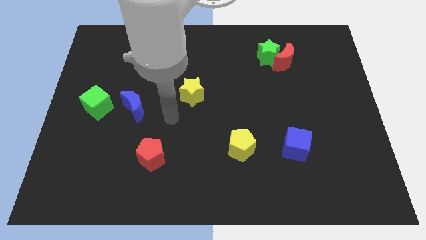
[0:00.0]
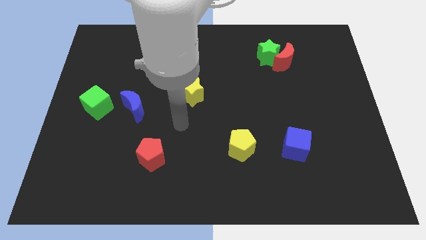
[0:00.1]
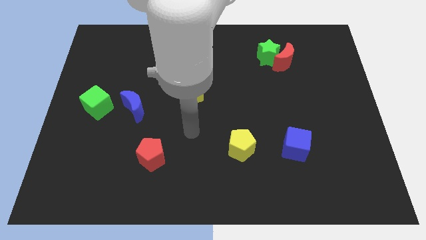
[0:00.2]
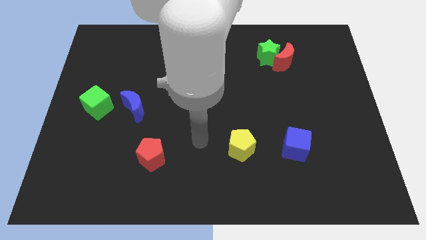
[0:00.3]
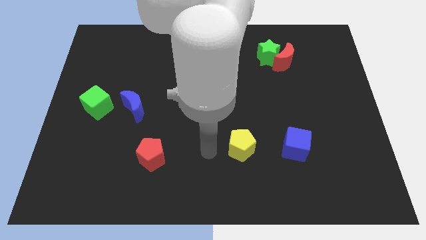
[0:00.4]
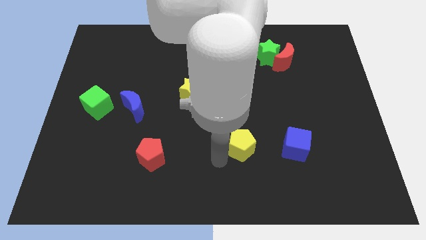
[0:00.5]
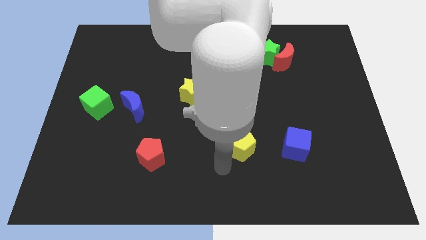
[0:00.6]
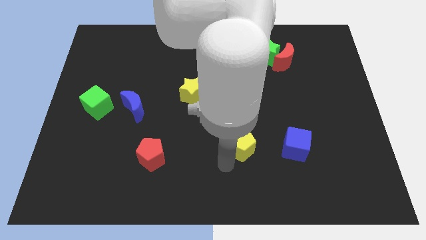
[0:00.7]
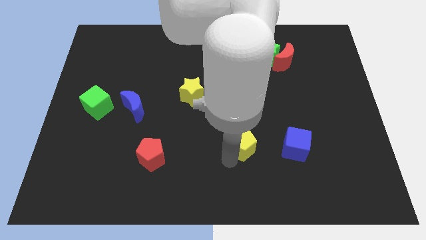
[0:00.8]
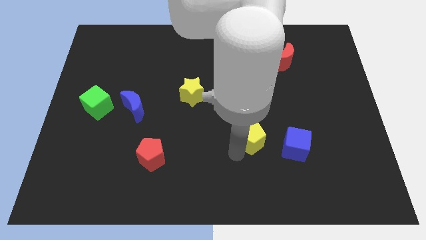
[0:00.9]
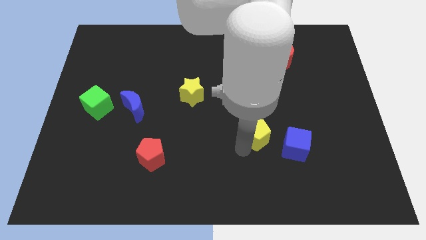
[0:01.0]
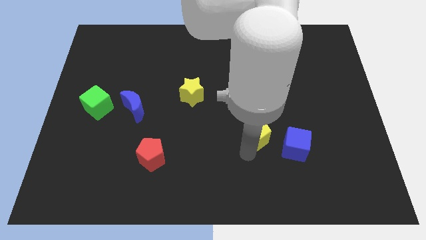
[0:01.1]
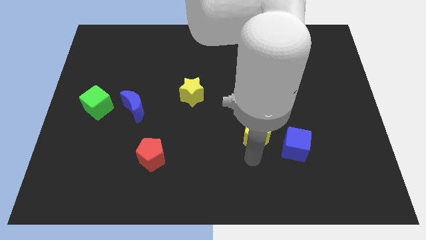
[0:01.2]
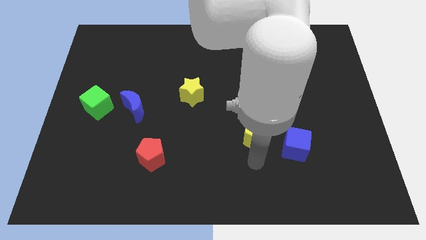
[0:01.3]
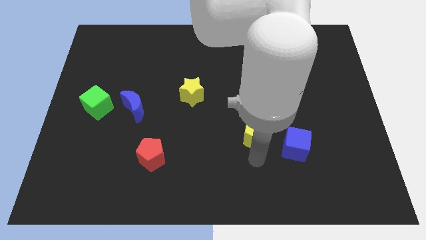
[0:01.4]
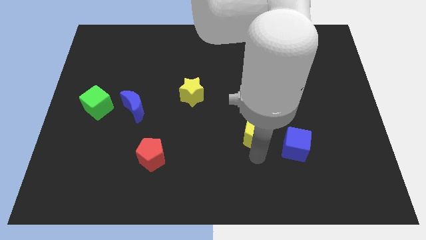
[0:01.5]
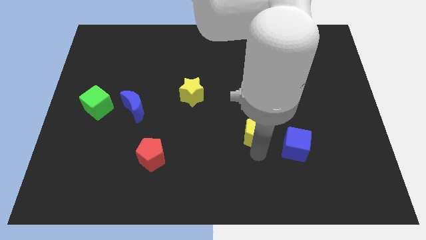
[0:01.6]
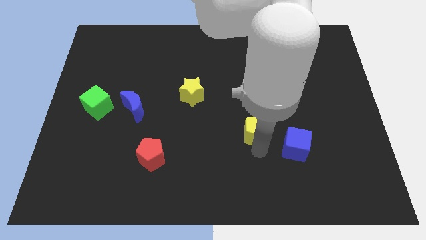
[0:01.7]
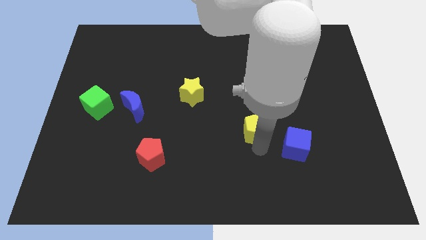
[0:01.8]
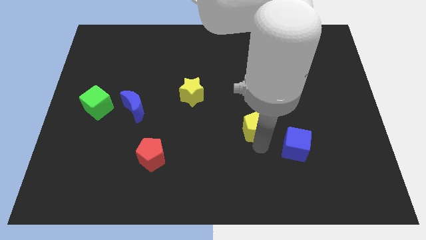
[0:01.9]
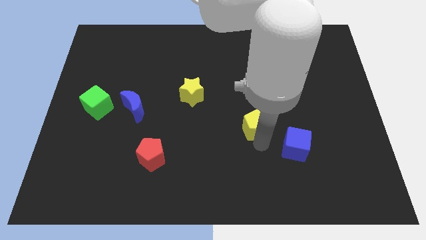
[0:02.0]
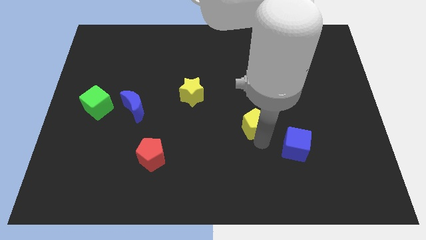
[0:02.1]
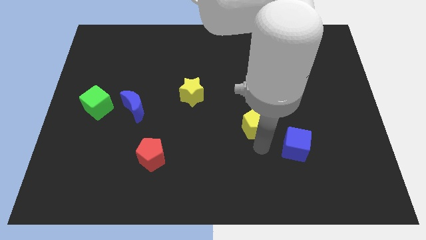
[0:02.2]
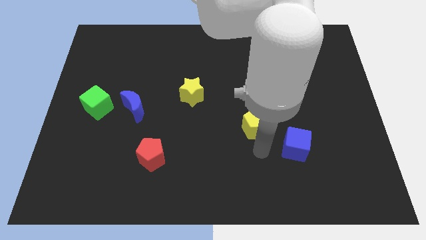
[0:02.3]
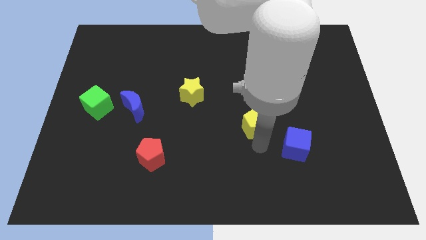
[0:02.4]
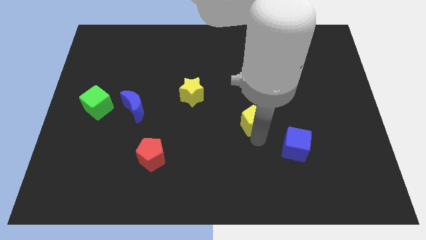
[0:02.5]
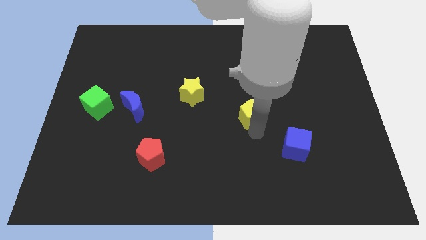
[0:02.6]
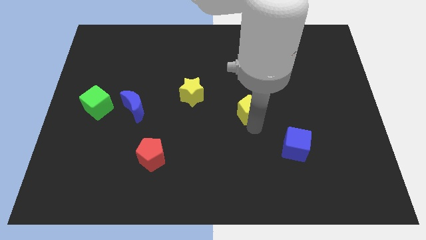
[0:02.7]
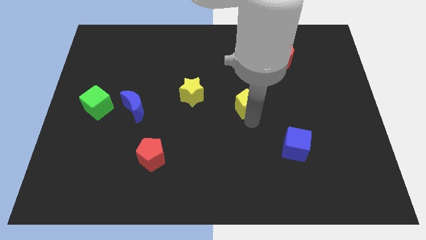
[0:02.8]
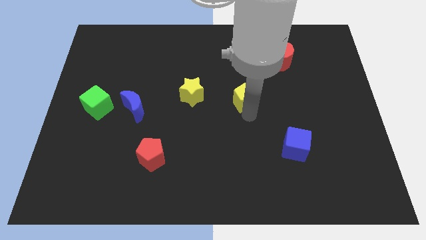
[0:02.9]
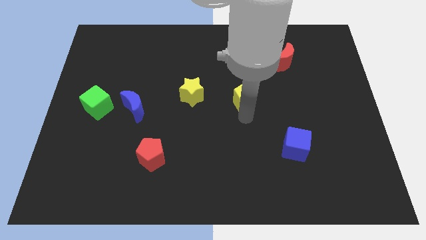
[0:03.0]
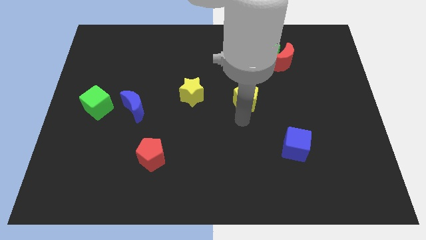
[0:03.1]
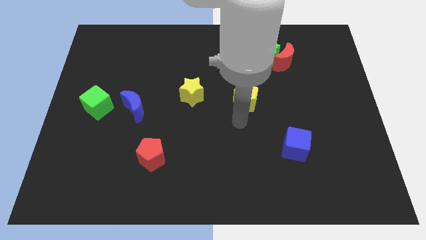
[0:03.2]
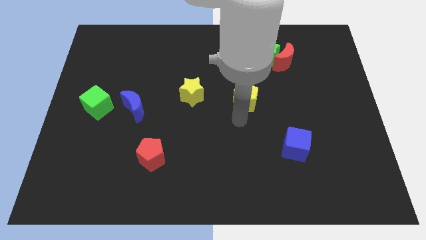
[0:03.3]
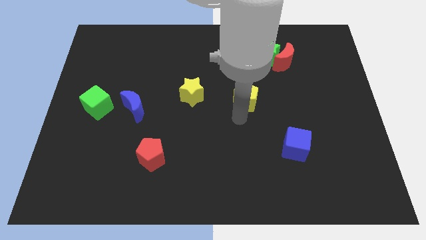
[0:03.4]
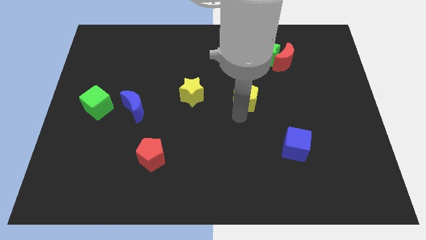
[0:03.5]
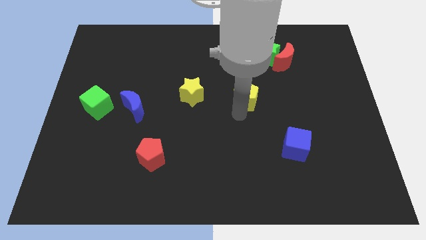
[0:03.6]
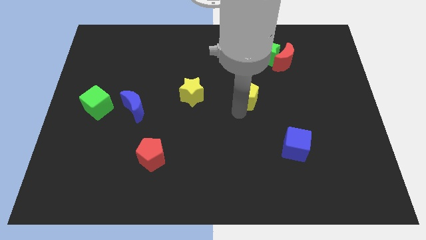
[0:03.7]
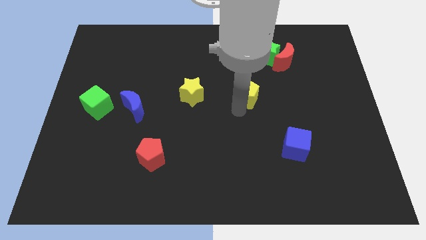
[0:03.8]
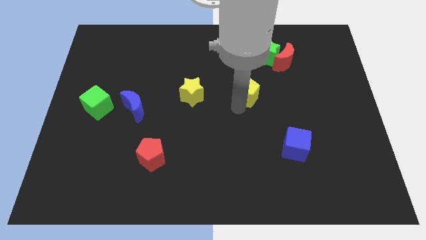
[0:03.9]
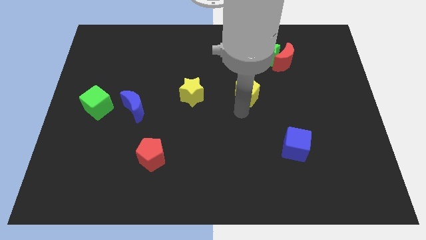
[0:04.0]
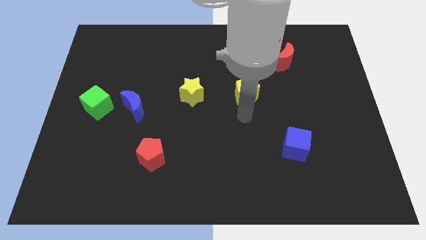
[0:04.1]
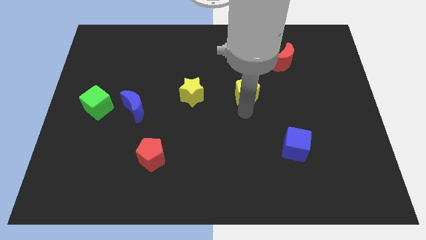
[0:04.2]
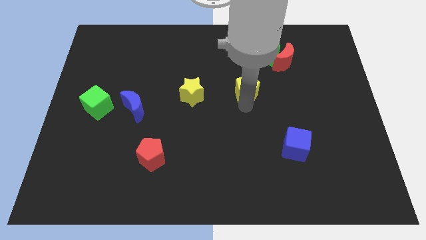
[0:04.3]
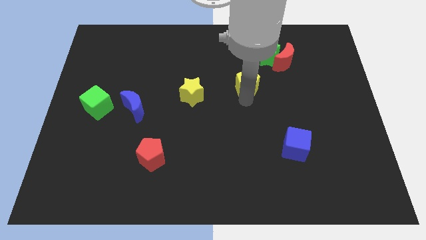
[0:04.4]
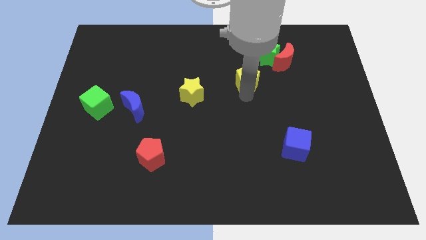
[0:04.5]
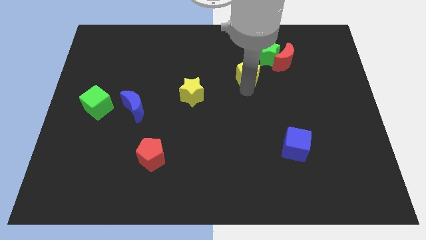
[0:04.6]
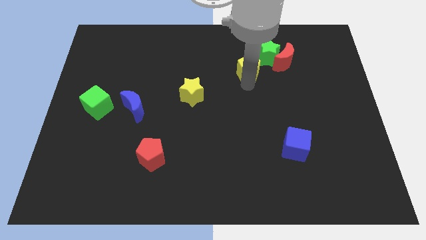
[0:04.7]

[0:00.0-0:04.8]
put the yellow pentagon just left of the red moon

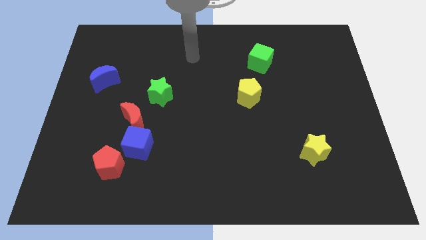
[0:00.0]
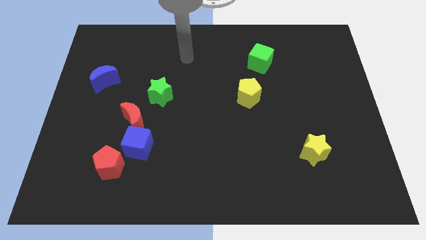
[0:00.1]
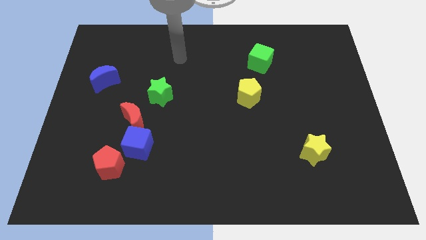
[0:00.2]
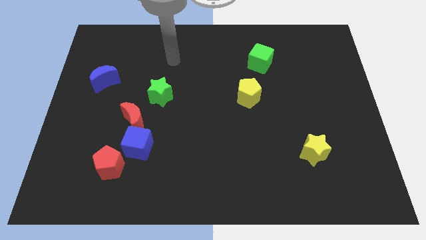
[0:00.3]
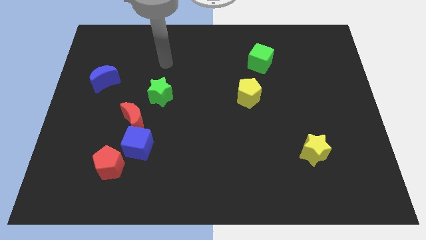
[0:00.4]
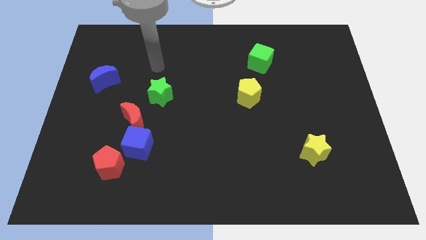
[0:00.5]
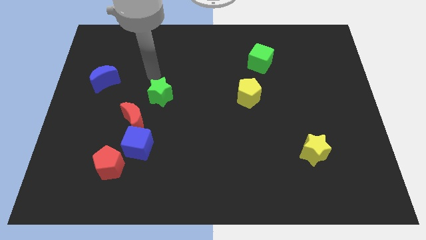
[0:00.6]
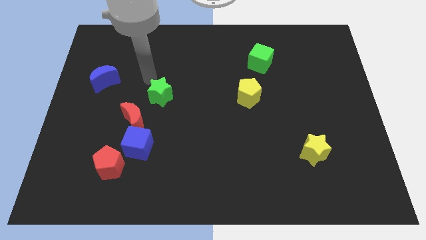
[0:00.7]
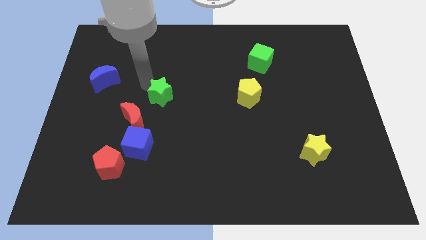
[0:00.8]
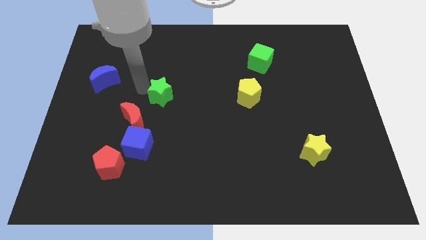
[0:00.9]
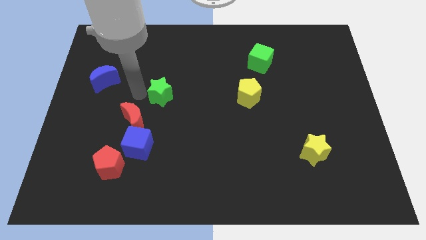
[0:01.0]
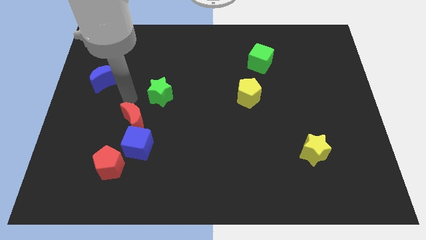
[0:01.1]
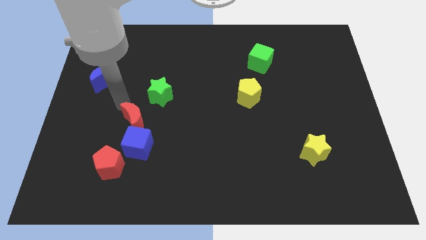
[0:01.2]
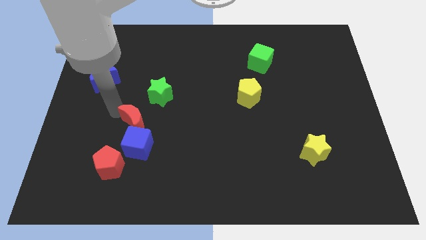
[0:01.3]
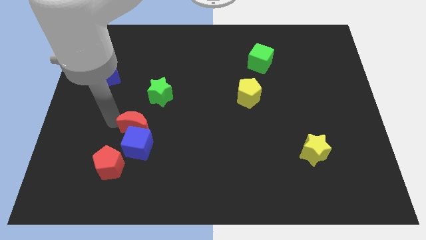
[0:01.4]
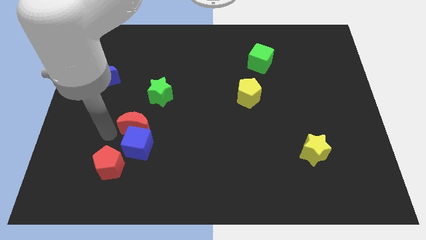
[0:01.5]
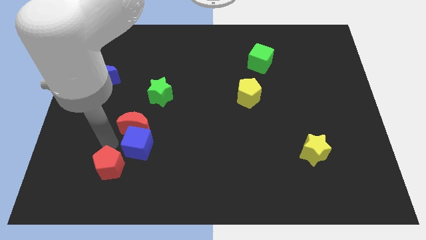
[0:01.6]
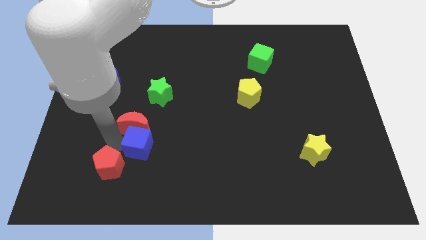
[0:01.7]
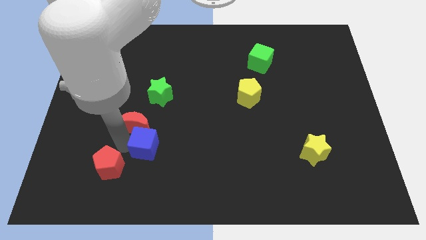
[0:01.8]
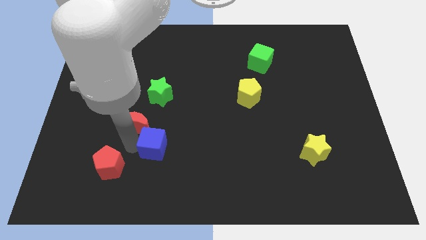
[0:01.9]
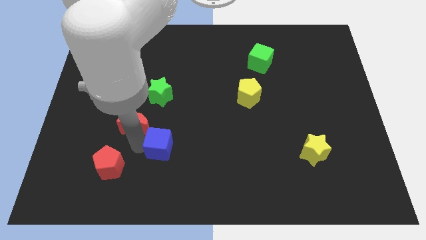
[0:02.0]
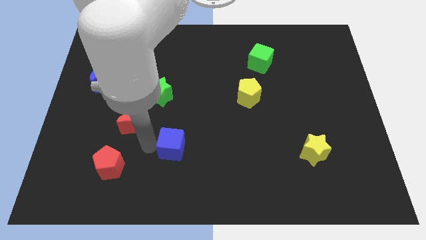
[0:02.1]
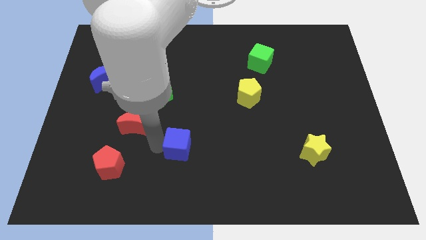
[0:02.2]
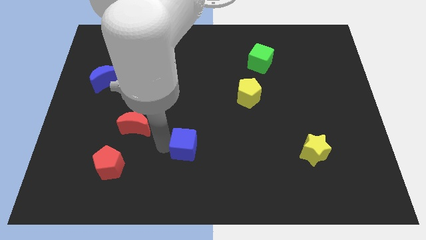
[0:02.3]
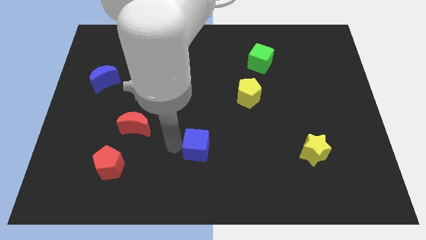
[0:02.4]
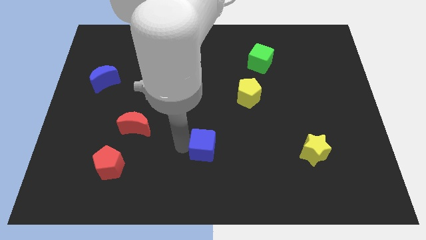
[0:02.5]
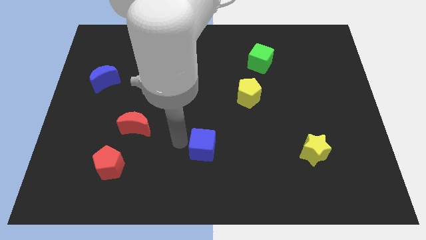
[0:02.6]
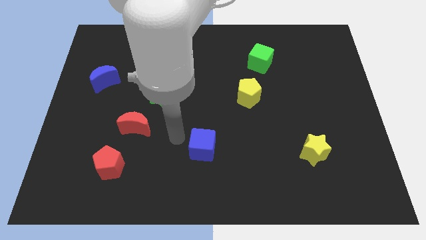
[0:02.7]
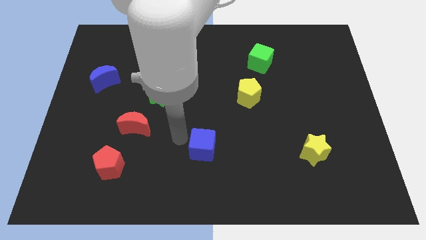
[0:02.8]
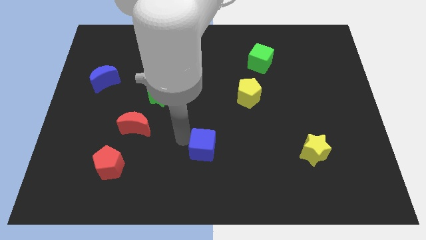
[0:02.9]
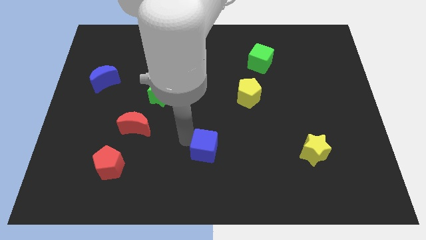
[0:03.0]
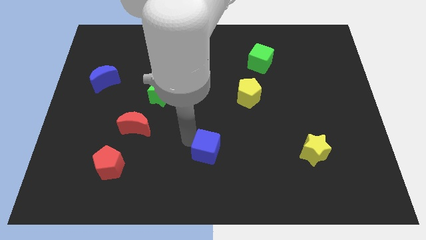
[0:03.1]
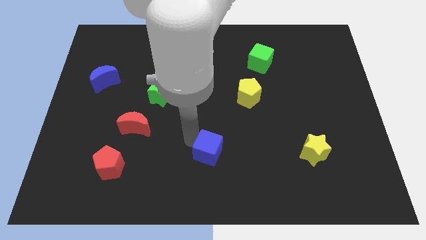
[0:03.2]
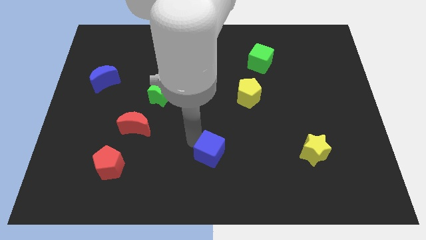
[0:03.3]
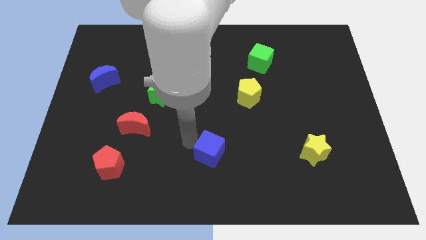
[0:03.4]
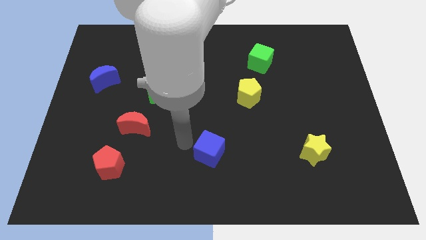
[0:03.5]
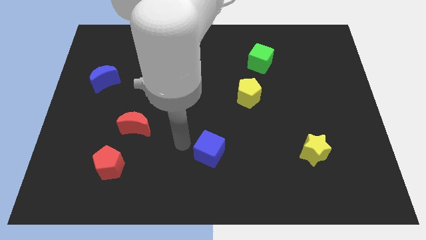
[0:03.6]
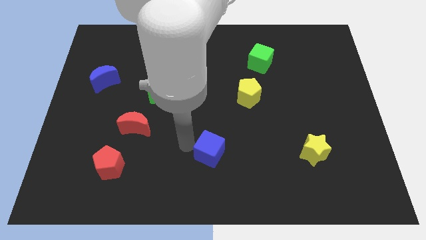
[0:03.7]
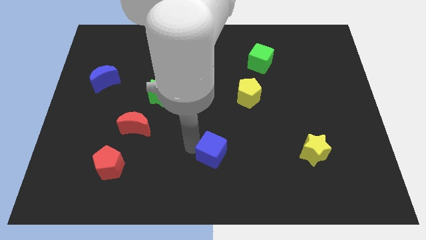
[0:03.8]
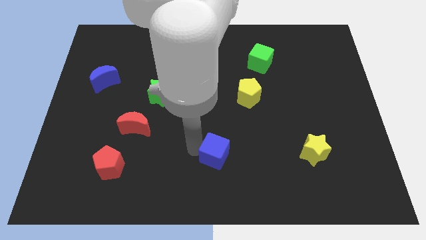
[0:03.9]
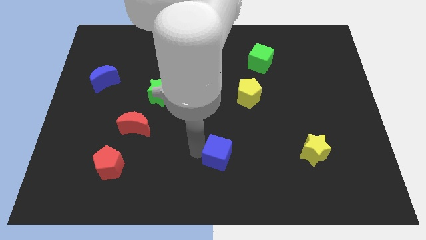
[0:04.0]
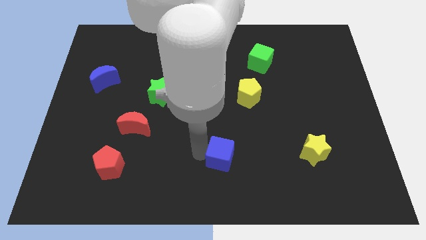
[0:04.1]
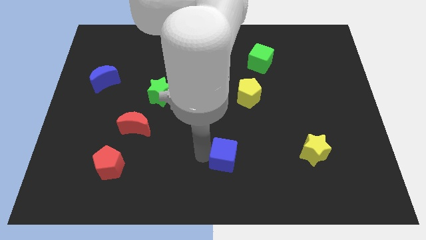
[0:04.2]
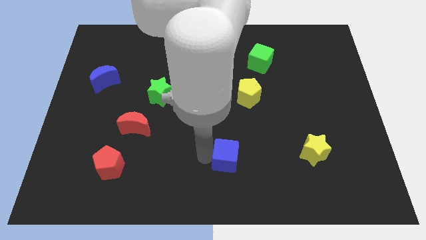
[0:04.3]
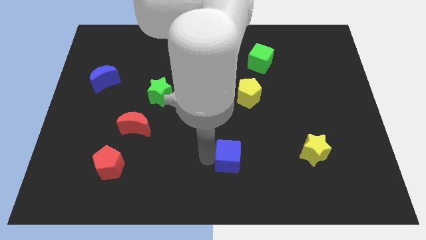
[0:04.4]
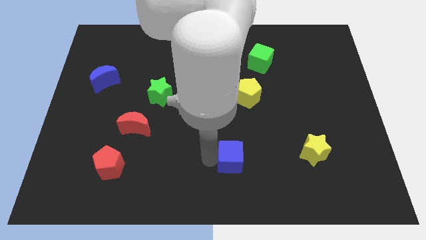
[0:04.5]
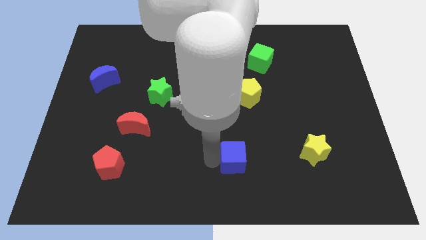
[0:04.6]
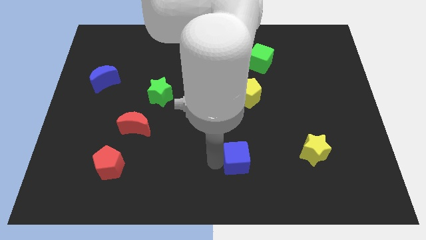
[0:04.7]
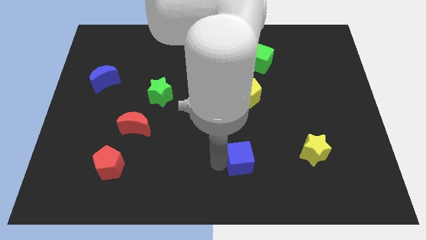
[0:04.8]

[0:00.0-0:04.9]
put the blue cube left of the yellow star
